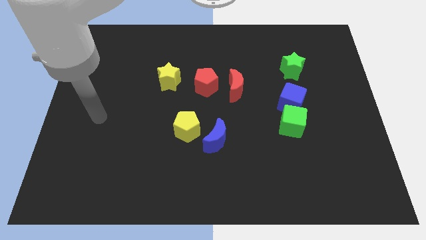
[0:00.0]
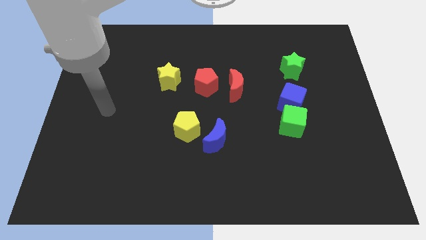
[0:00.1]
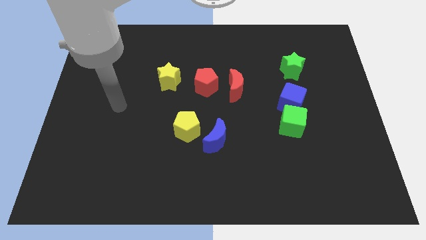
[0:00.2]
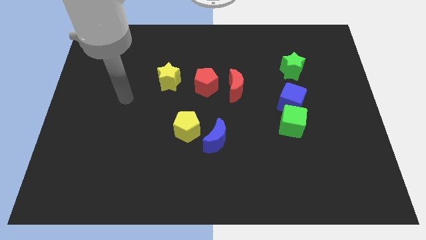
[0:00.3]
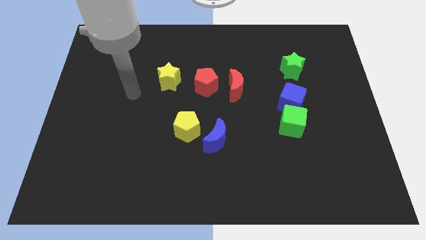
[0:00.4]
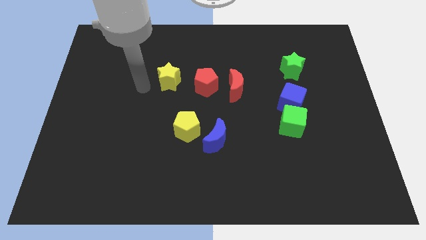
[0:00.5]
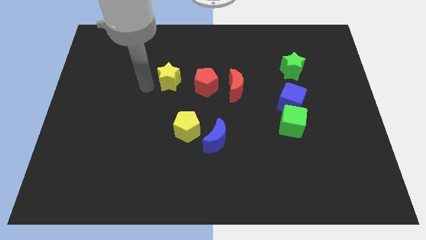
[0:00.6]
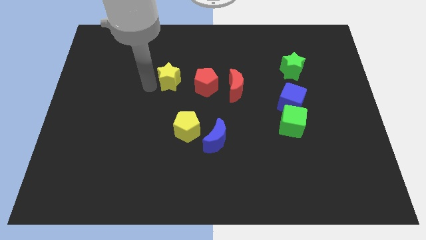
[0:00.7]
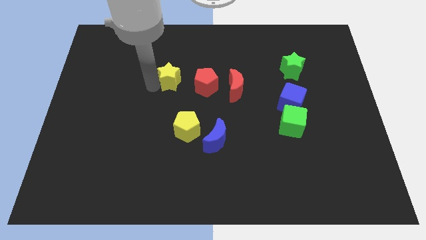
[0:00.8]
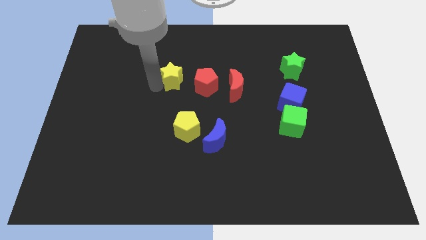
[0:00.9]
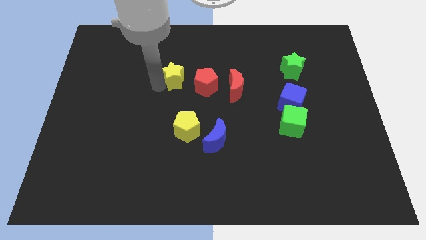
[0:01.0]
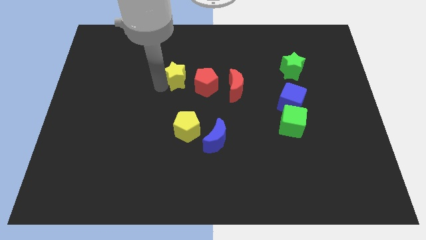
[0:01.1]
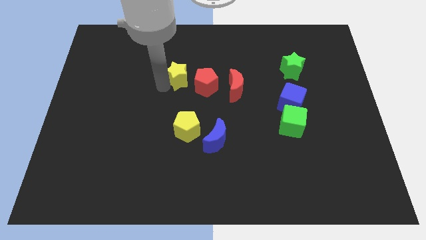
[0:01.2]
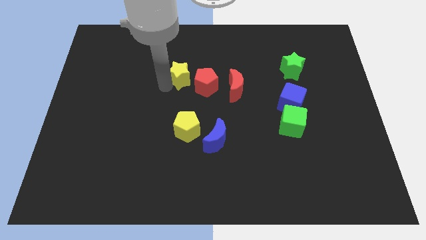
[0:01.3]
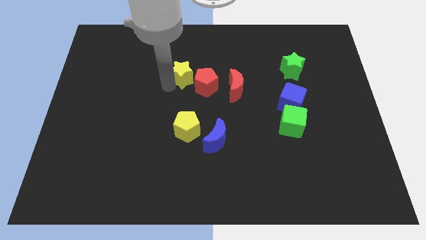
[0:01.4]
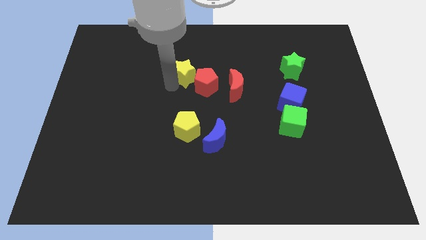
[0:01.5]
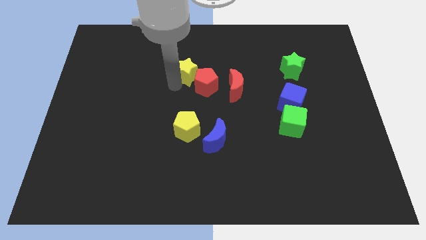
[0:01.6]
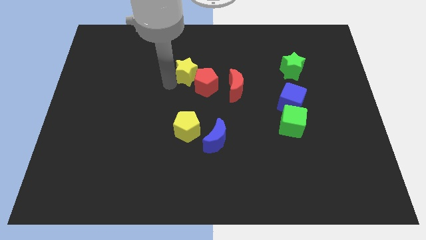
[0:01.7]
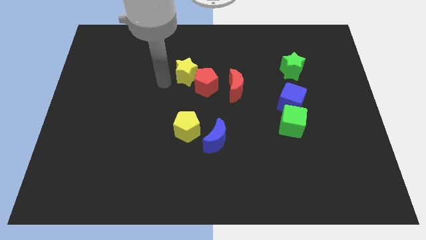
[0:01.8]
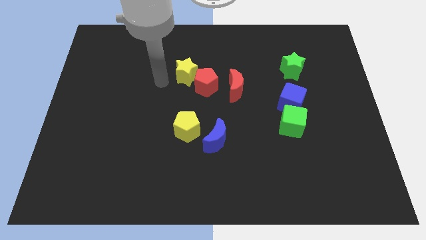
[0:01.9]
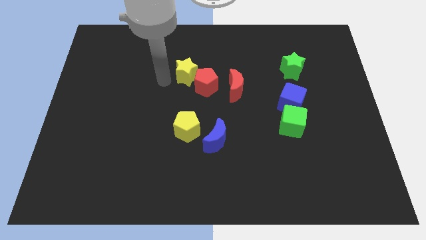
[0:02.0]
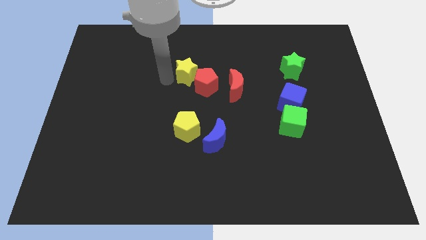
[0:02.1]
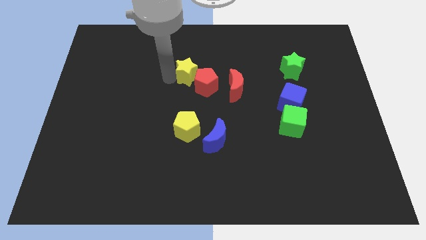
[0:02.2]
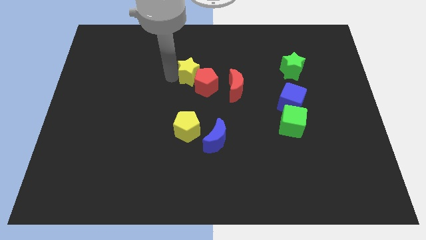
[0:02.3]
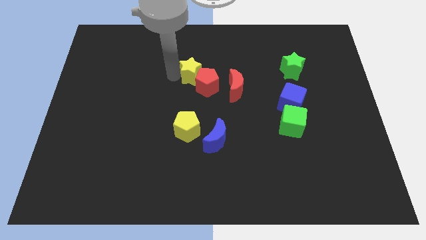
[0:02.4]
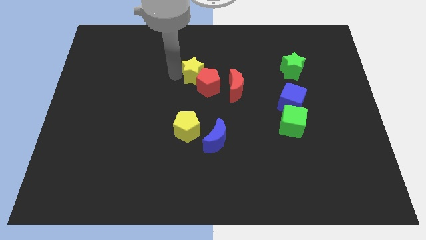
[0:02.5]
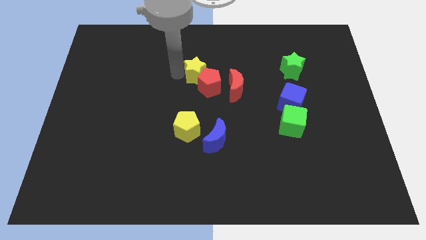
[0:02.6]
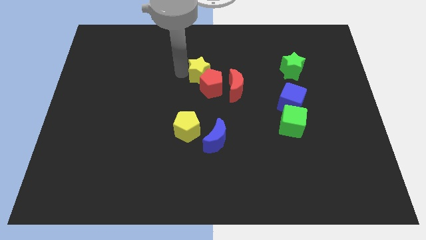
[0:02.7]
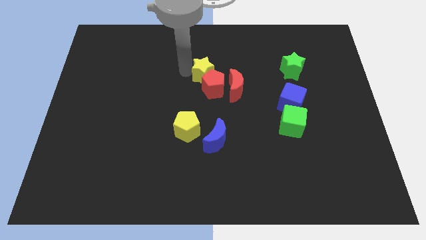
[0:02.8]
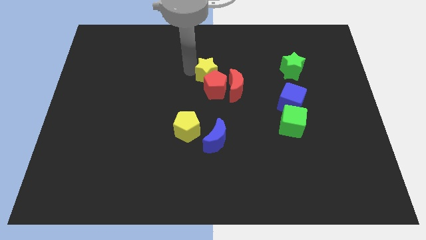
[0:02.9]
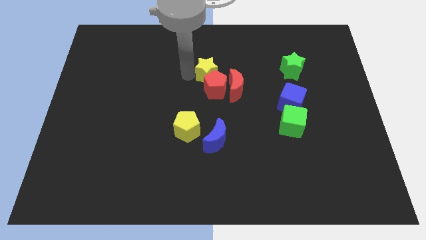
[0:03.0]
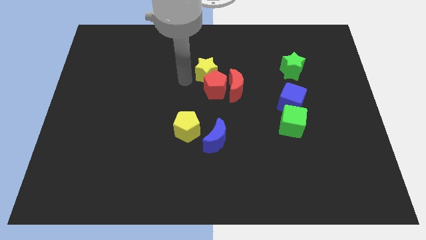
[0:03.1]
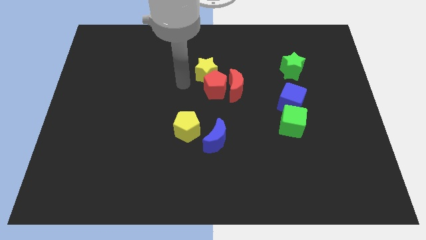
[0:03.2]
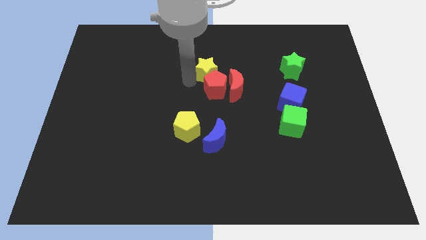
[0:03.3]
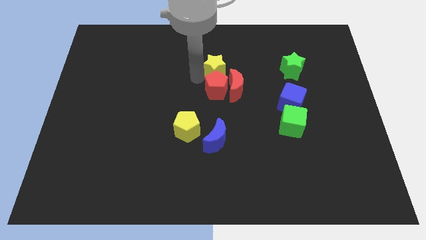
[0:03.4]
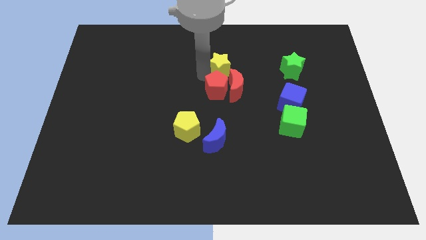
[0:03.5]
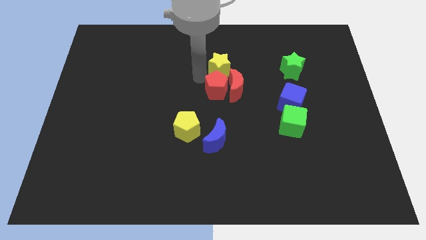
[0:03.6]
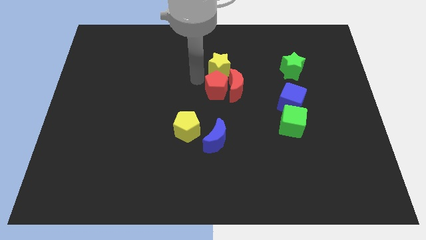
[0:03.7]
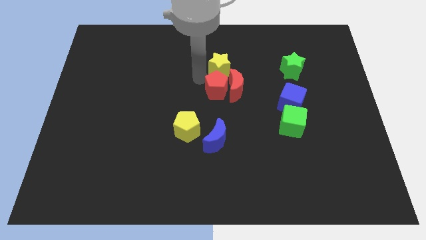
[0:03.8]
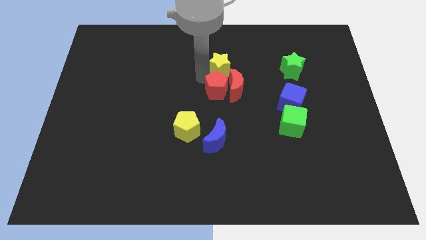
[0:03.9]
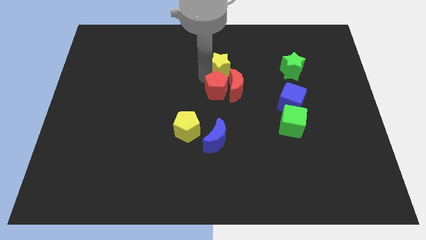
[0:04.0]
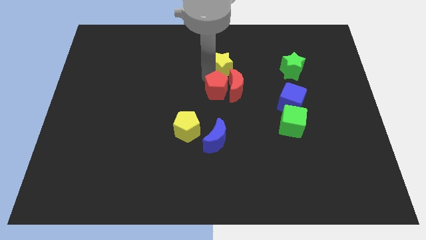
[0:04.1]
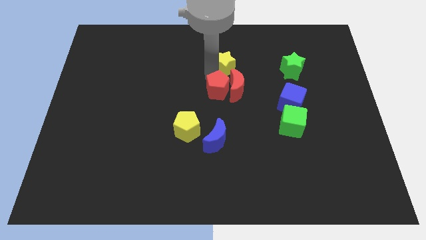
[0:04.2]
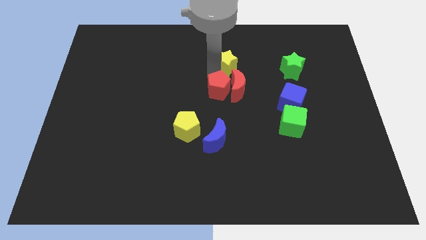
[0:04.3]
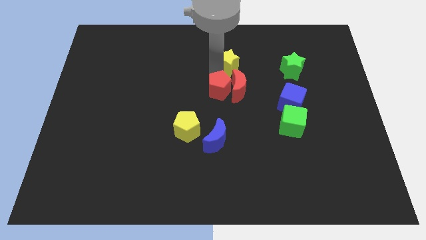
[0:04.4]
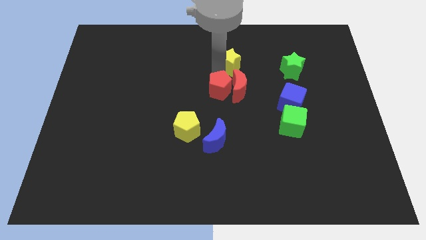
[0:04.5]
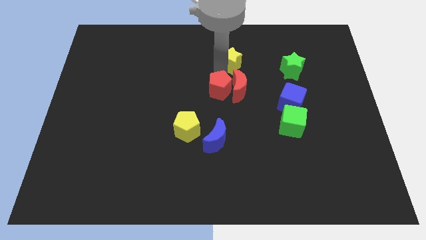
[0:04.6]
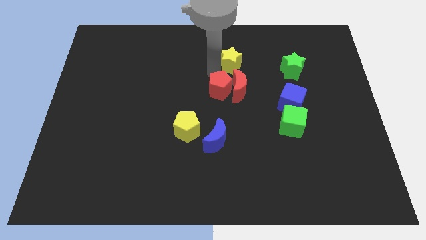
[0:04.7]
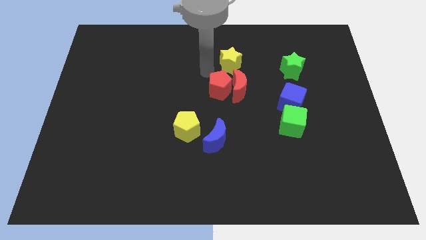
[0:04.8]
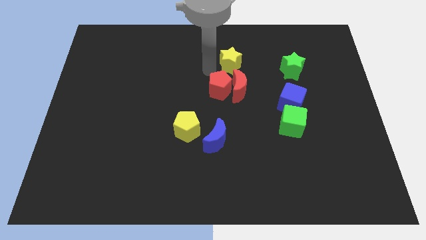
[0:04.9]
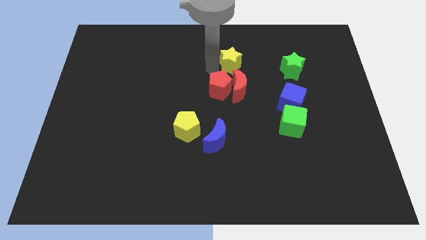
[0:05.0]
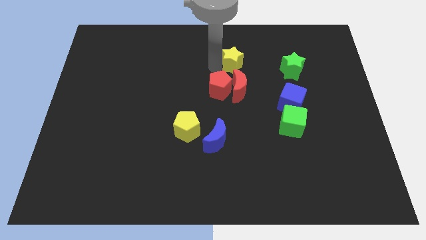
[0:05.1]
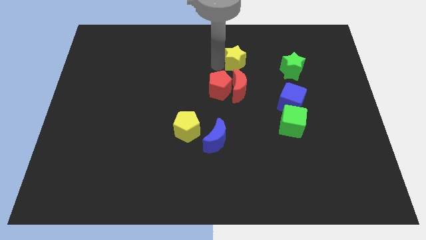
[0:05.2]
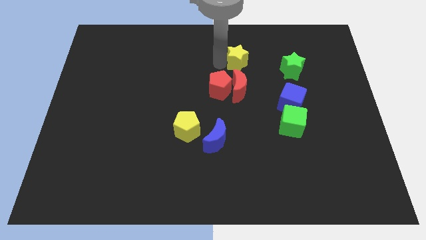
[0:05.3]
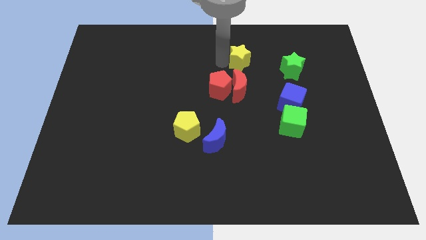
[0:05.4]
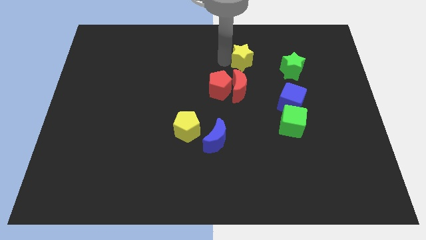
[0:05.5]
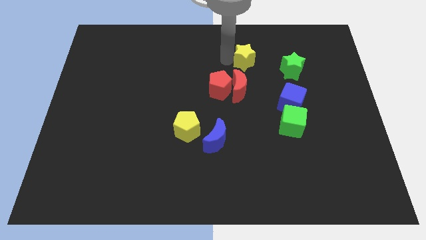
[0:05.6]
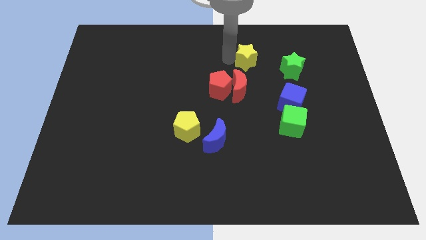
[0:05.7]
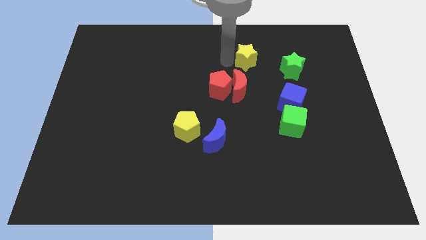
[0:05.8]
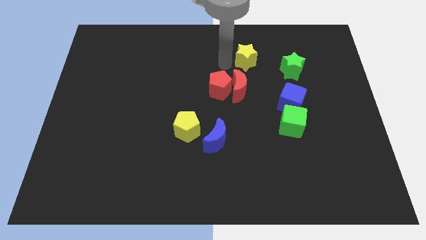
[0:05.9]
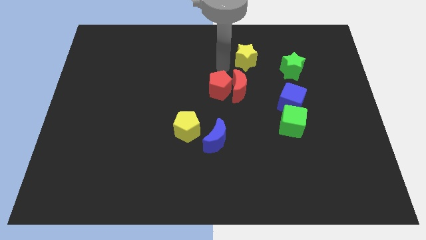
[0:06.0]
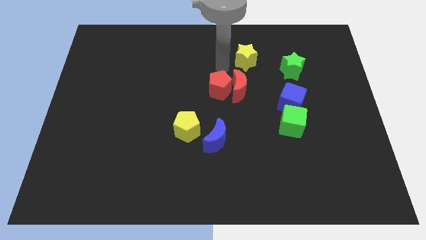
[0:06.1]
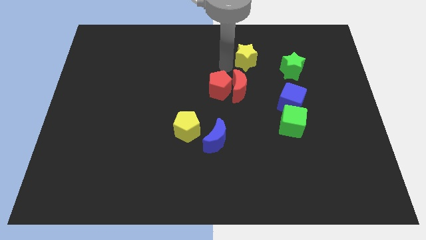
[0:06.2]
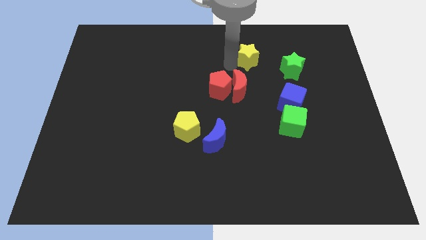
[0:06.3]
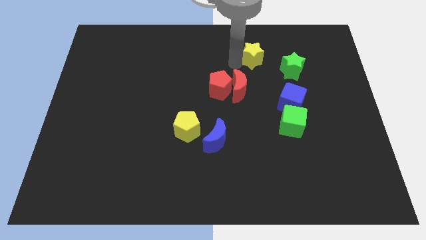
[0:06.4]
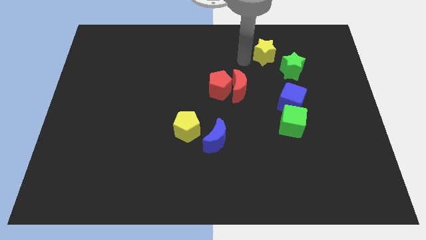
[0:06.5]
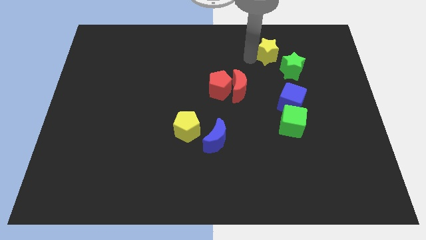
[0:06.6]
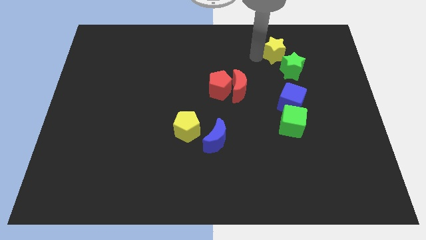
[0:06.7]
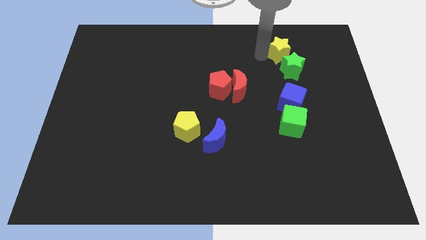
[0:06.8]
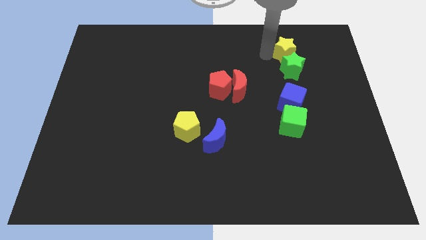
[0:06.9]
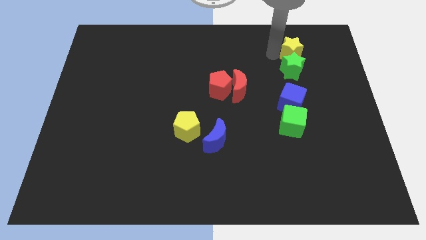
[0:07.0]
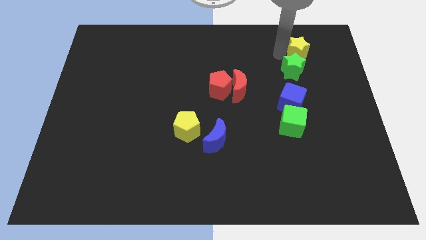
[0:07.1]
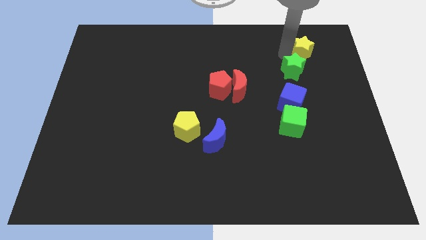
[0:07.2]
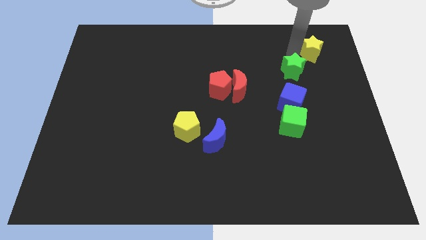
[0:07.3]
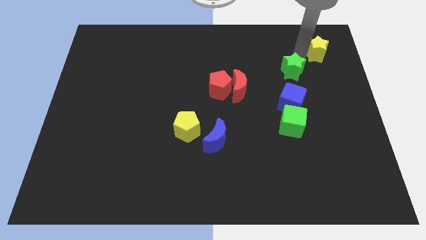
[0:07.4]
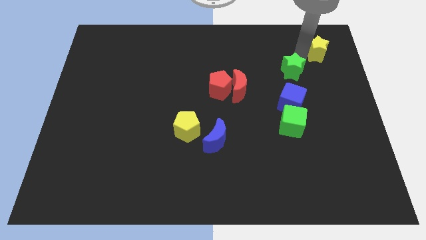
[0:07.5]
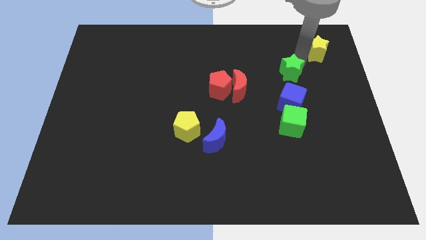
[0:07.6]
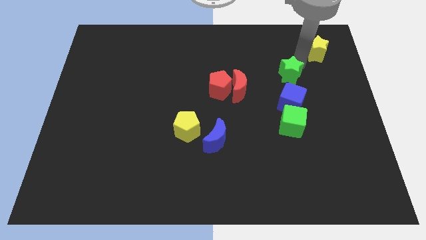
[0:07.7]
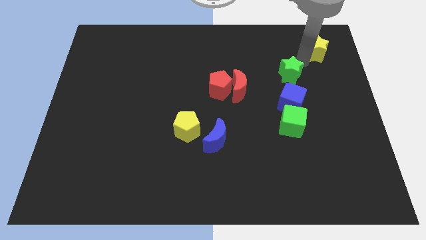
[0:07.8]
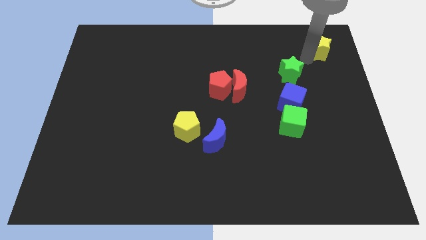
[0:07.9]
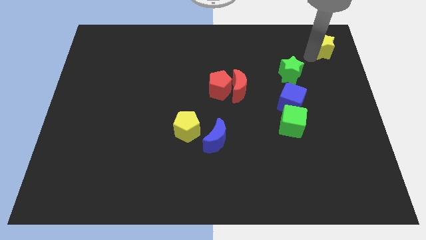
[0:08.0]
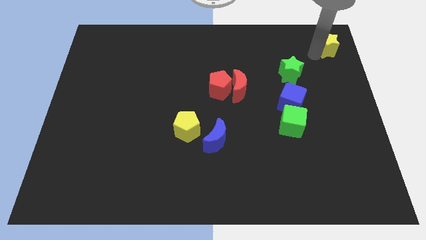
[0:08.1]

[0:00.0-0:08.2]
slide the yellow star to the upper right corner
